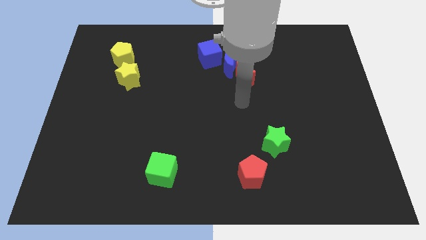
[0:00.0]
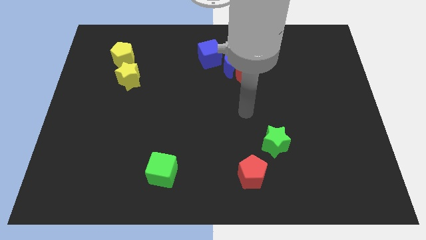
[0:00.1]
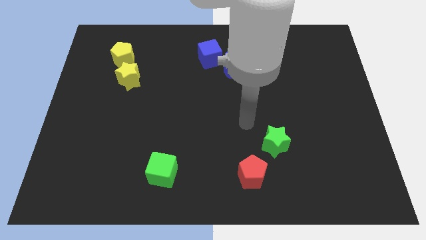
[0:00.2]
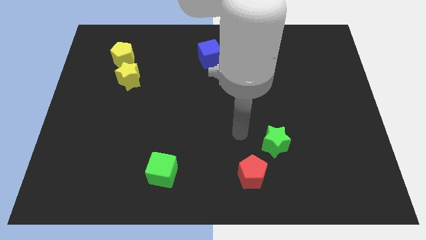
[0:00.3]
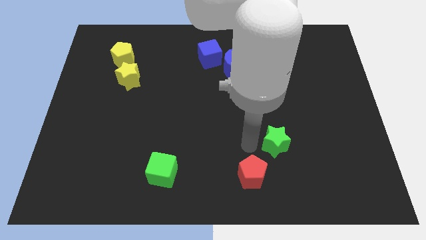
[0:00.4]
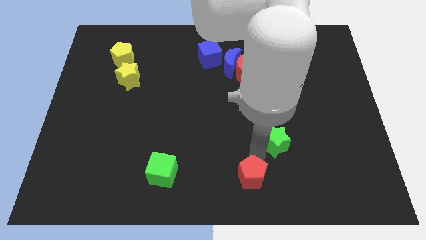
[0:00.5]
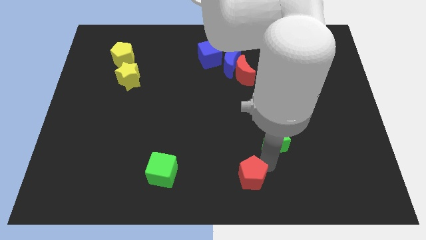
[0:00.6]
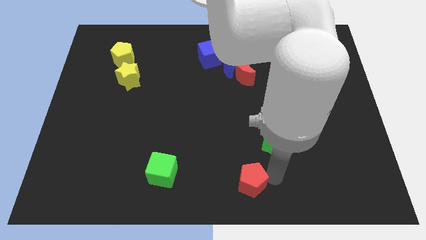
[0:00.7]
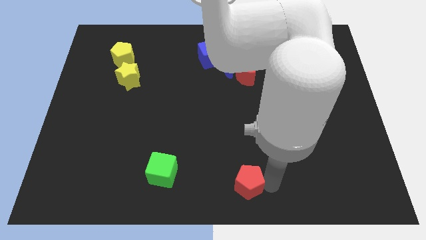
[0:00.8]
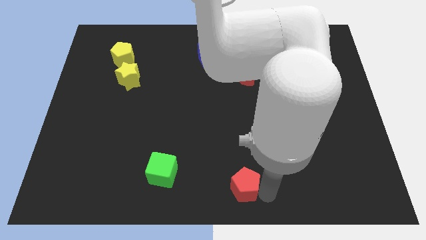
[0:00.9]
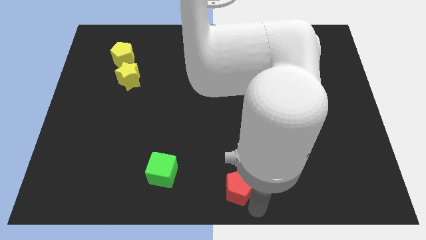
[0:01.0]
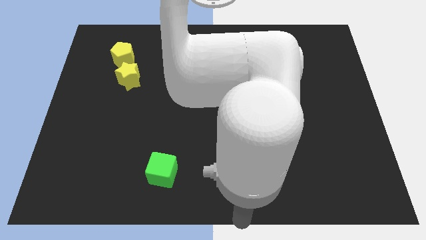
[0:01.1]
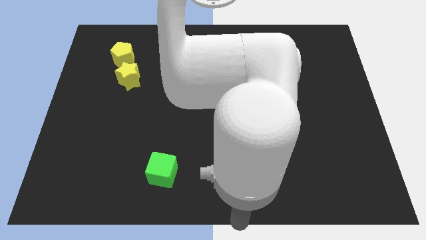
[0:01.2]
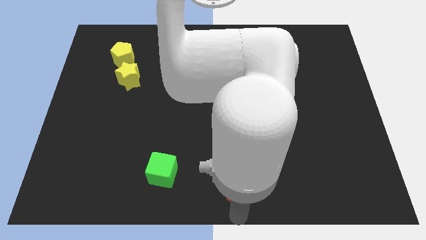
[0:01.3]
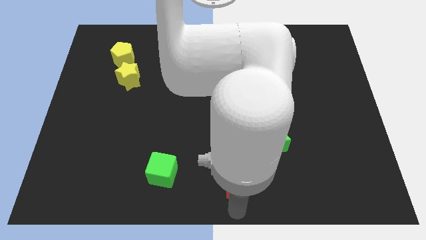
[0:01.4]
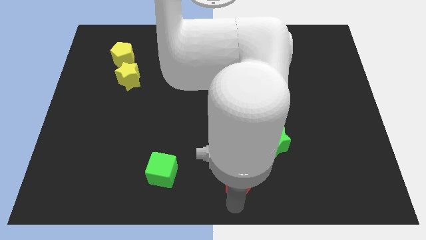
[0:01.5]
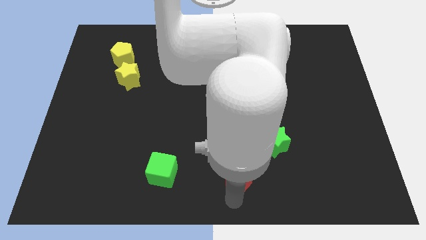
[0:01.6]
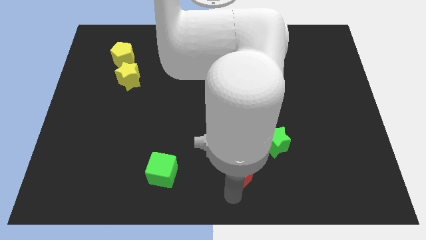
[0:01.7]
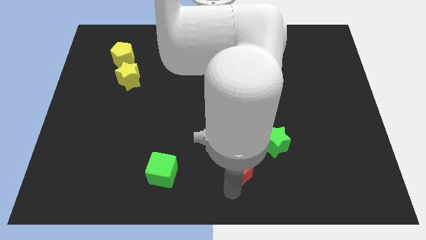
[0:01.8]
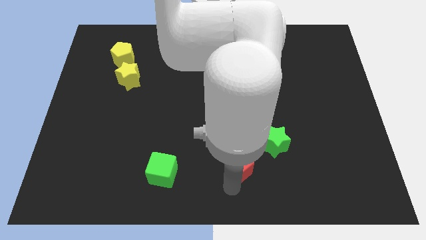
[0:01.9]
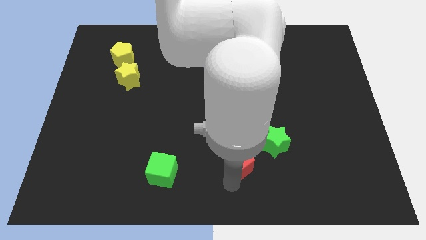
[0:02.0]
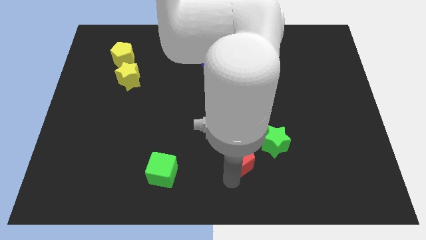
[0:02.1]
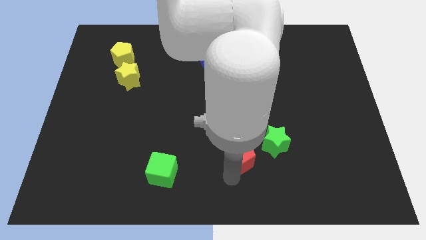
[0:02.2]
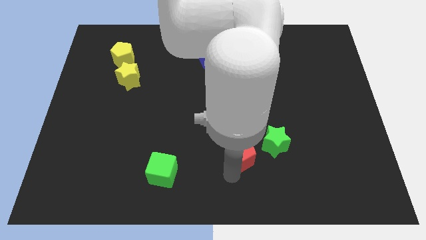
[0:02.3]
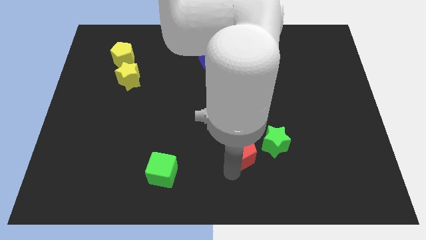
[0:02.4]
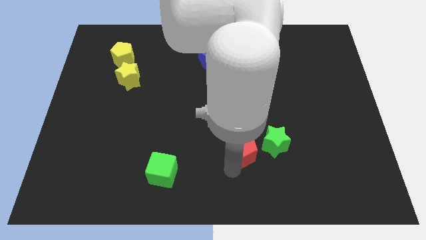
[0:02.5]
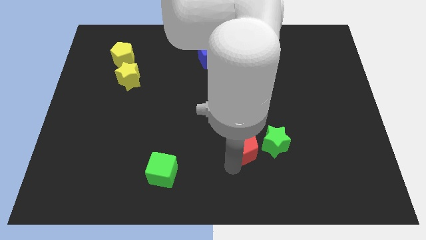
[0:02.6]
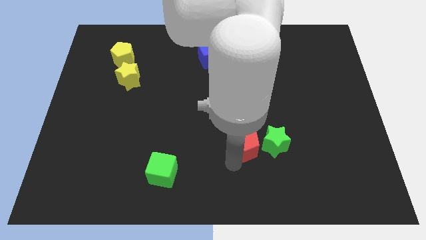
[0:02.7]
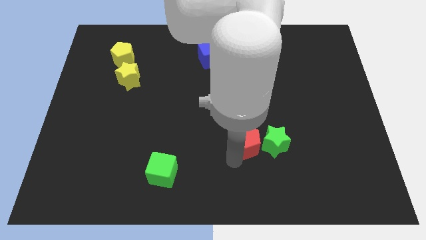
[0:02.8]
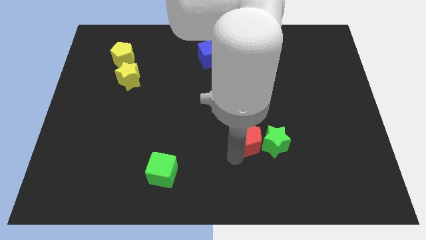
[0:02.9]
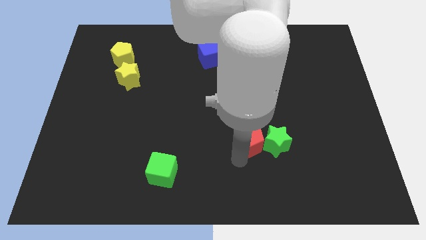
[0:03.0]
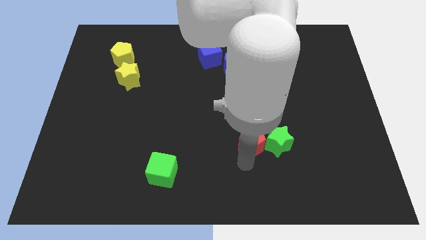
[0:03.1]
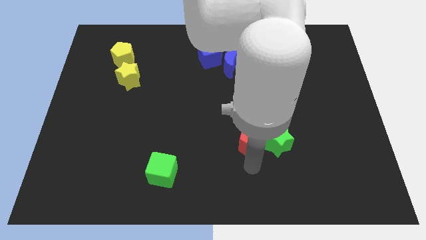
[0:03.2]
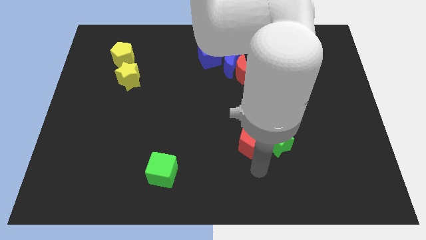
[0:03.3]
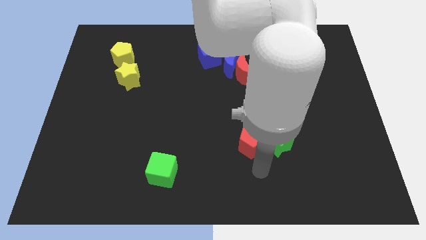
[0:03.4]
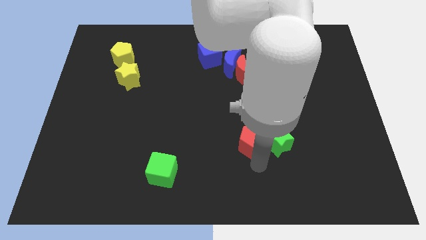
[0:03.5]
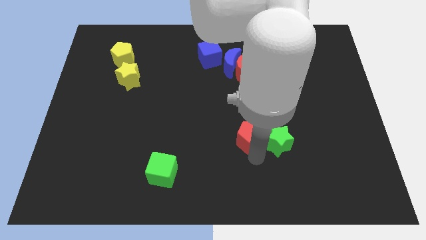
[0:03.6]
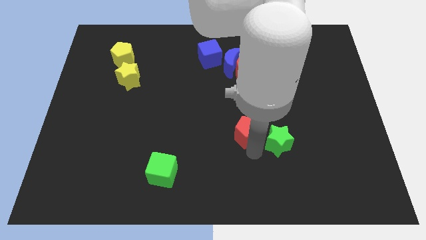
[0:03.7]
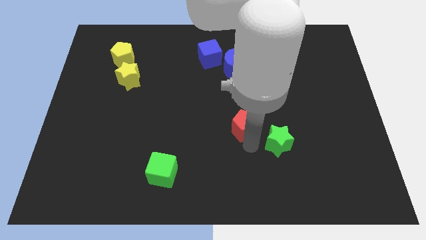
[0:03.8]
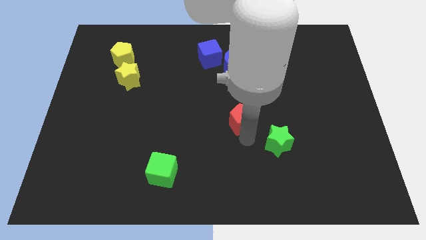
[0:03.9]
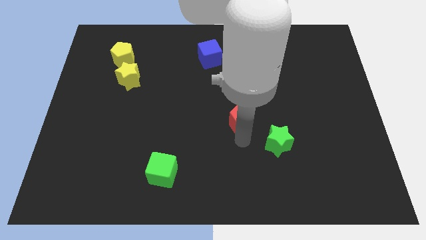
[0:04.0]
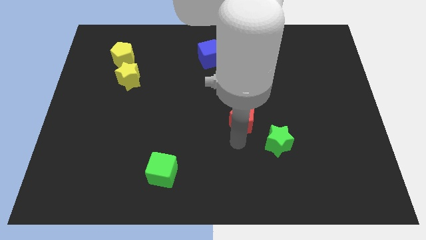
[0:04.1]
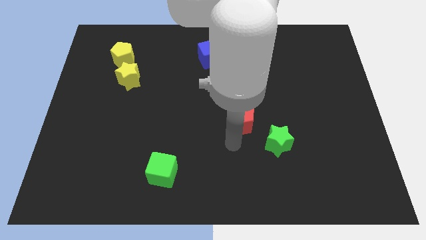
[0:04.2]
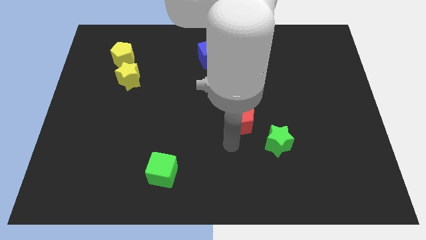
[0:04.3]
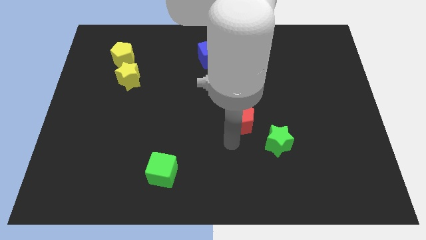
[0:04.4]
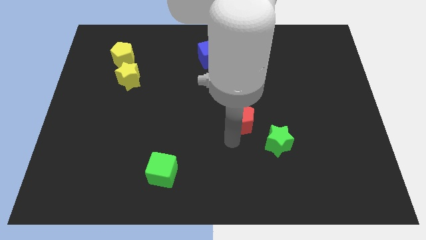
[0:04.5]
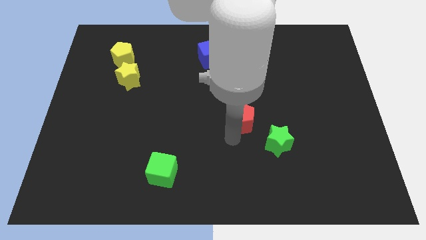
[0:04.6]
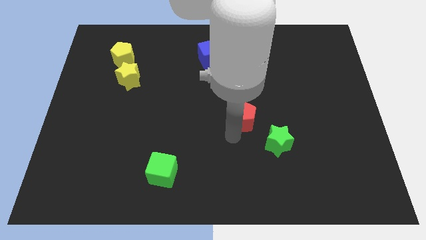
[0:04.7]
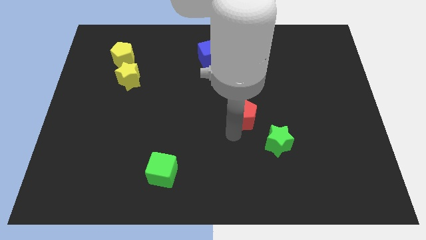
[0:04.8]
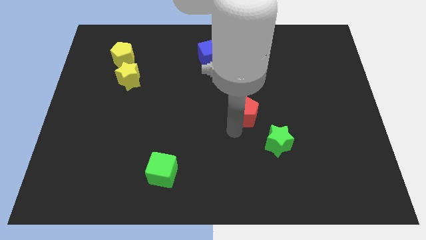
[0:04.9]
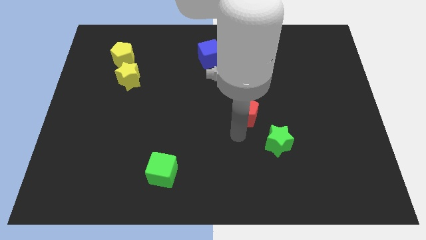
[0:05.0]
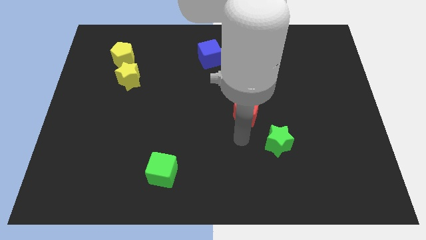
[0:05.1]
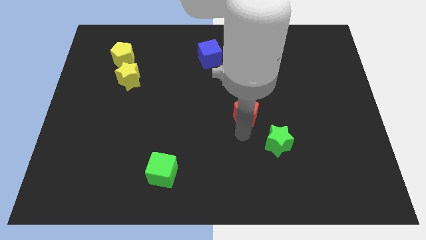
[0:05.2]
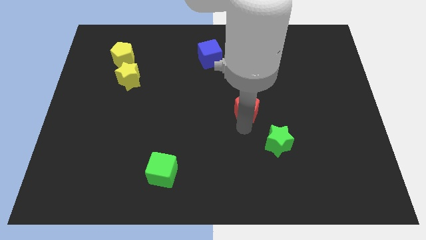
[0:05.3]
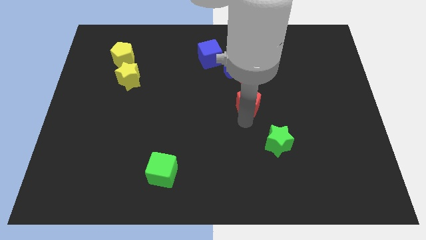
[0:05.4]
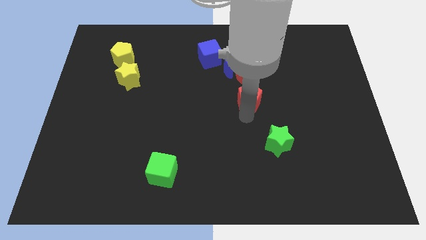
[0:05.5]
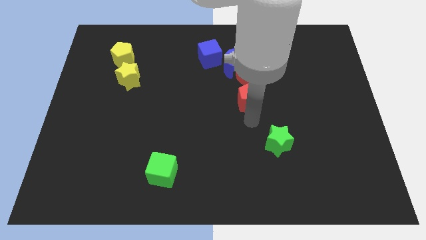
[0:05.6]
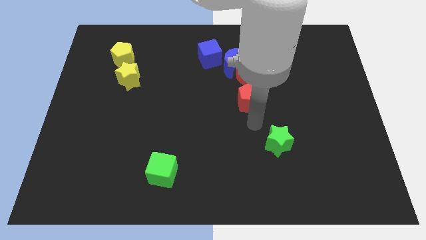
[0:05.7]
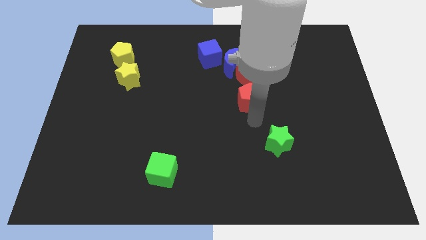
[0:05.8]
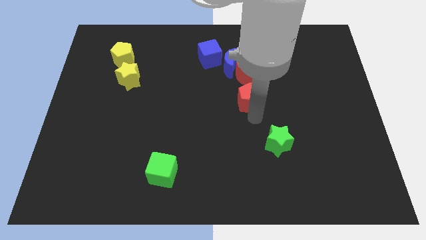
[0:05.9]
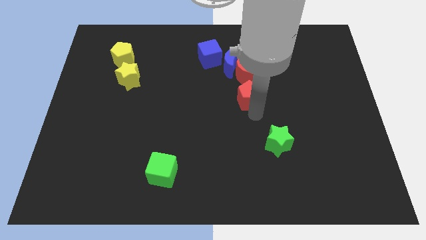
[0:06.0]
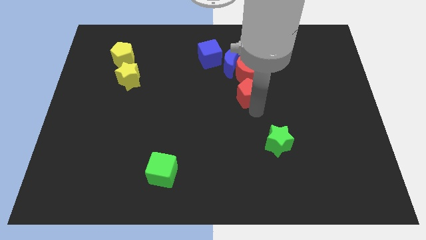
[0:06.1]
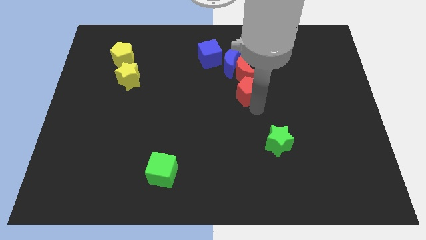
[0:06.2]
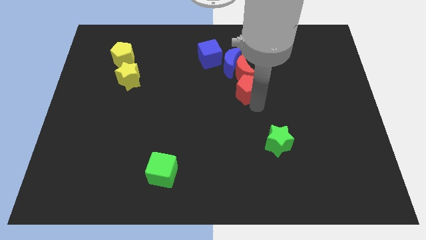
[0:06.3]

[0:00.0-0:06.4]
push the red pentagon next to the red moon

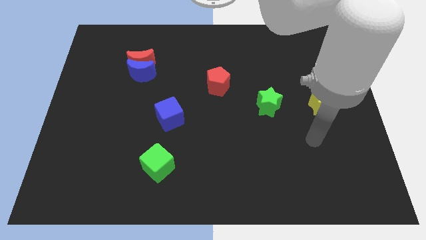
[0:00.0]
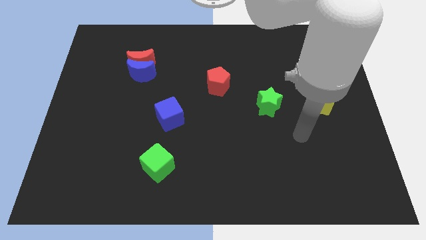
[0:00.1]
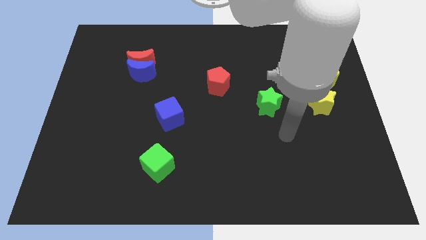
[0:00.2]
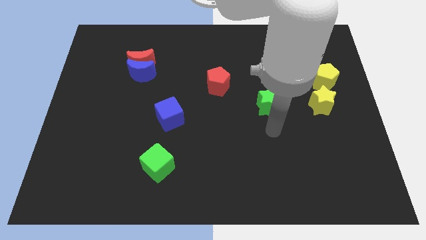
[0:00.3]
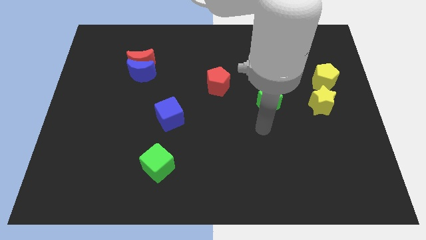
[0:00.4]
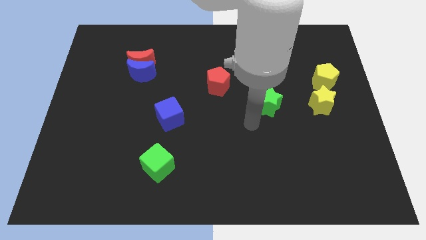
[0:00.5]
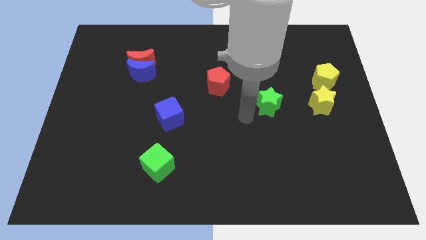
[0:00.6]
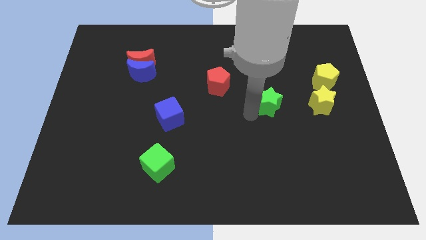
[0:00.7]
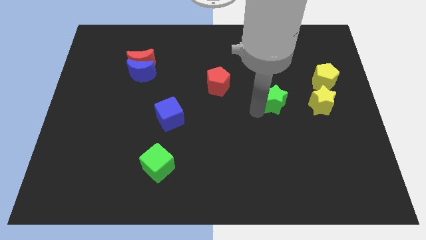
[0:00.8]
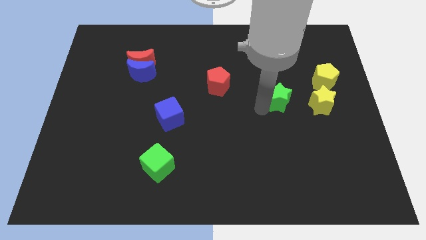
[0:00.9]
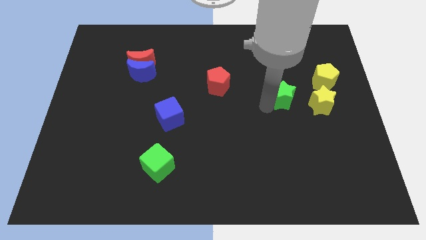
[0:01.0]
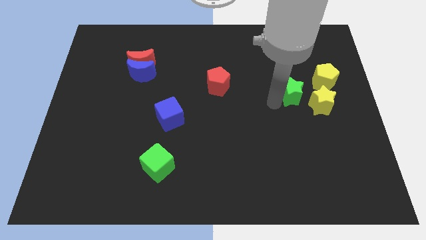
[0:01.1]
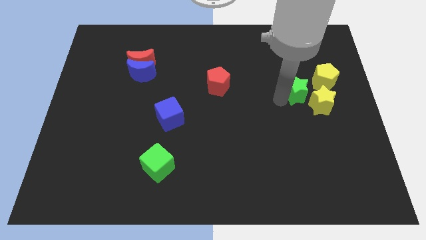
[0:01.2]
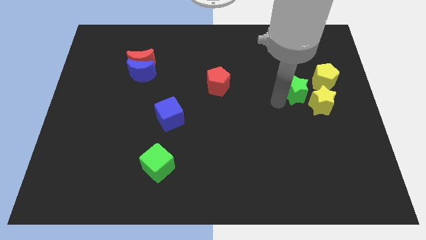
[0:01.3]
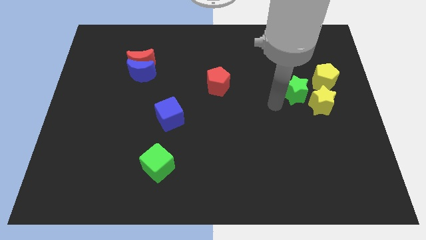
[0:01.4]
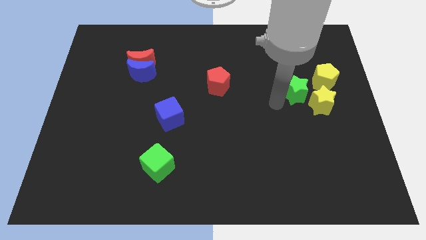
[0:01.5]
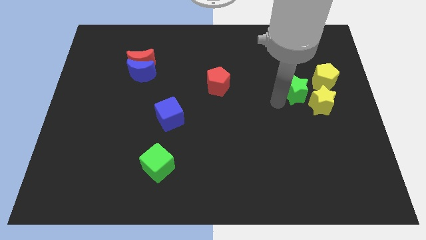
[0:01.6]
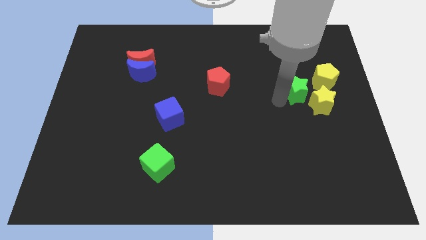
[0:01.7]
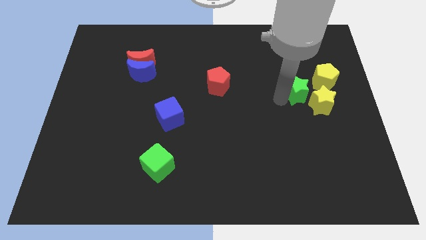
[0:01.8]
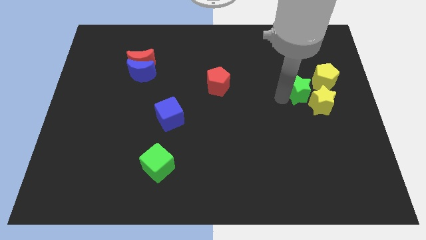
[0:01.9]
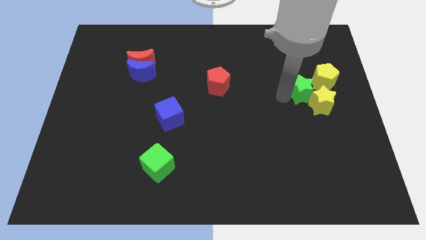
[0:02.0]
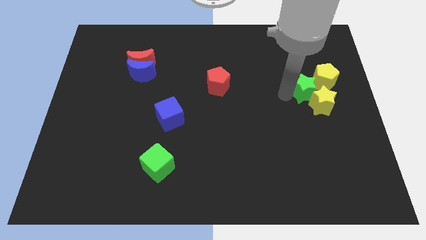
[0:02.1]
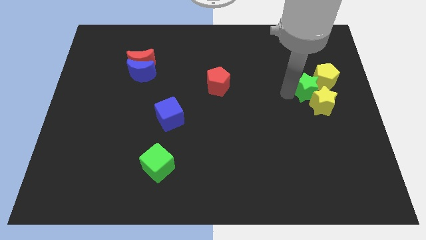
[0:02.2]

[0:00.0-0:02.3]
push the green star towards the yellow pentagon
